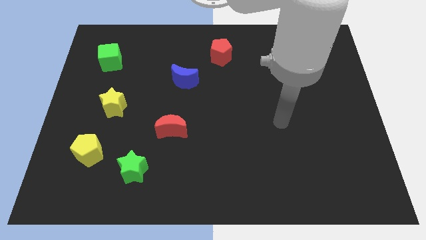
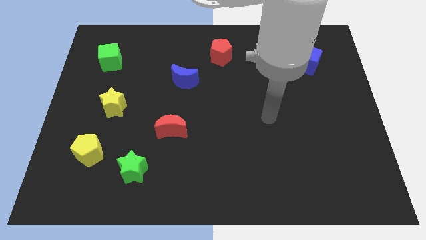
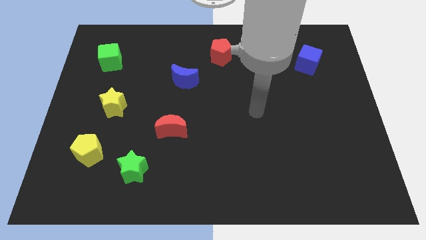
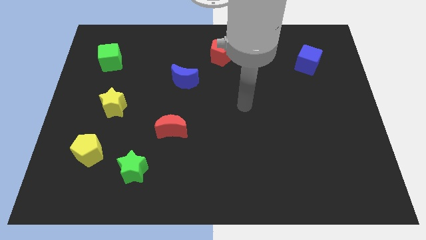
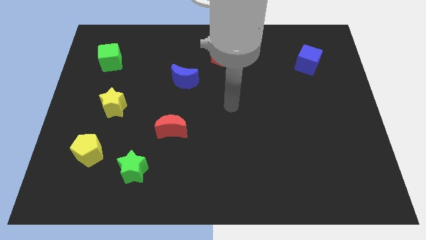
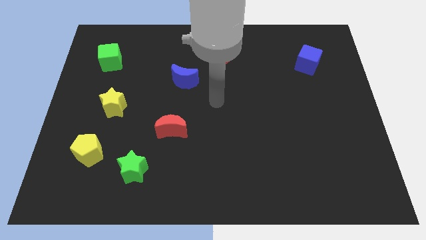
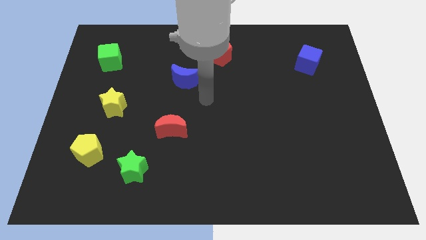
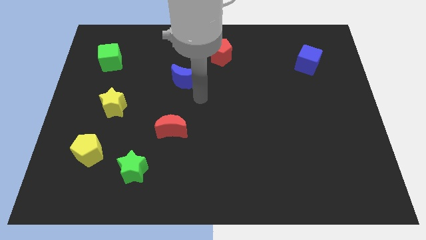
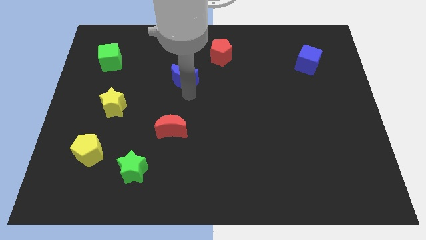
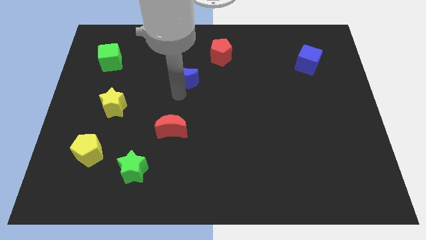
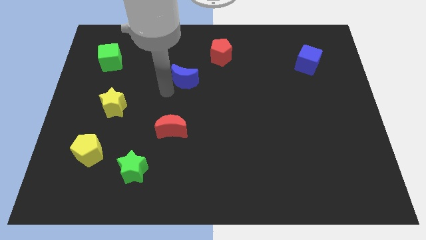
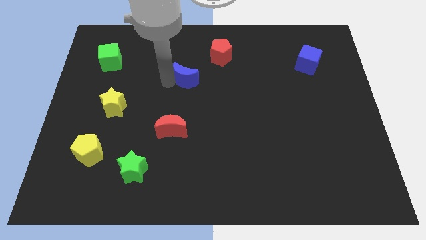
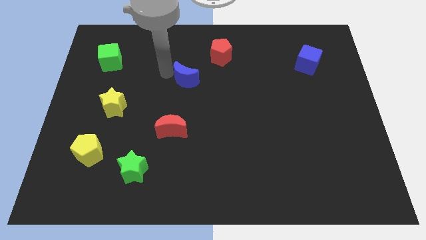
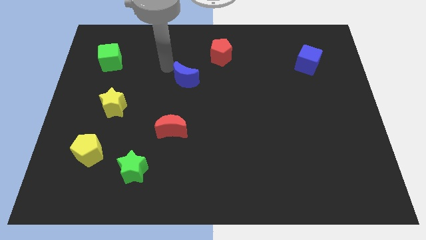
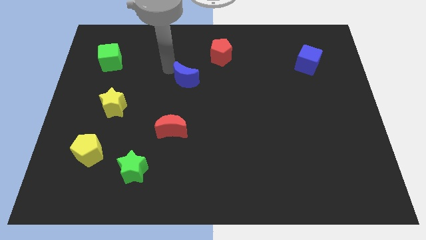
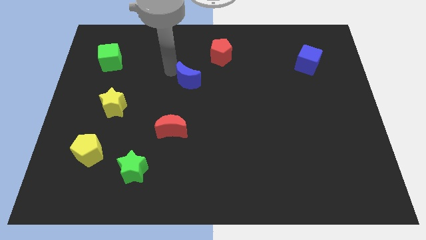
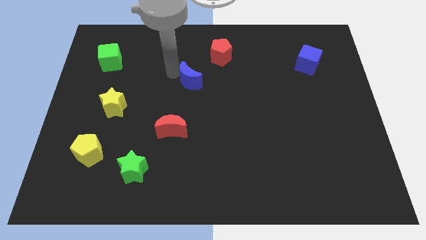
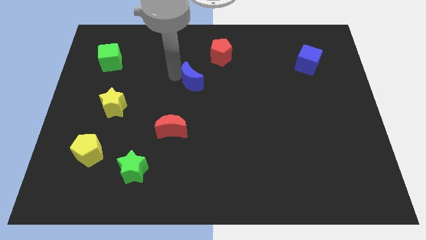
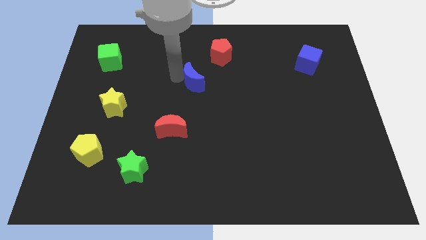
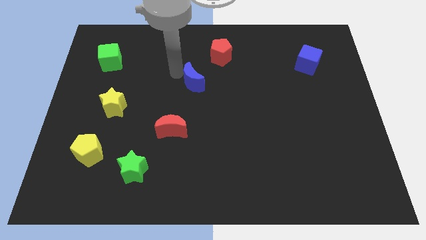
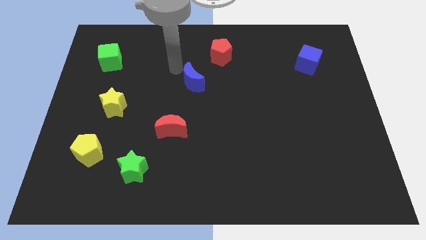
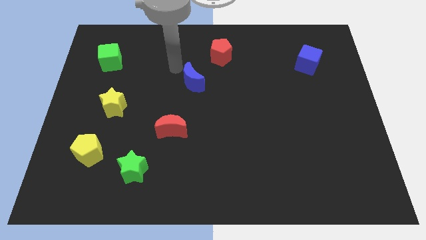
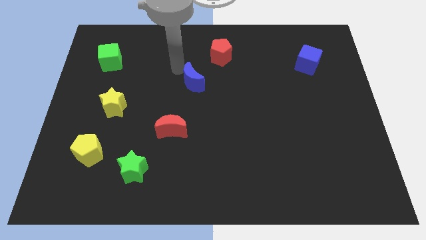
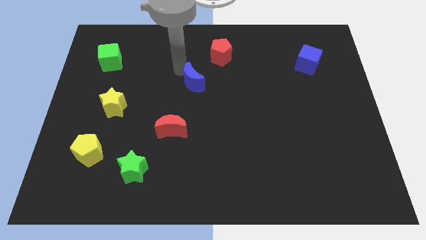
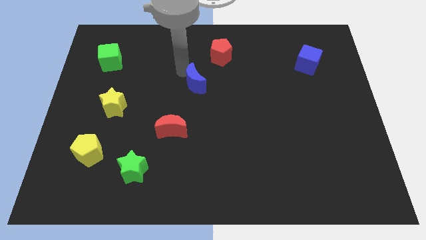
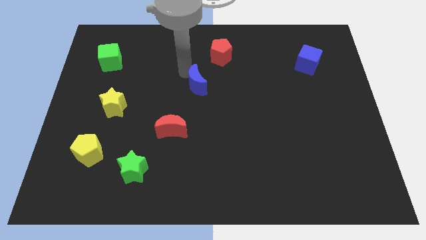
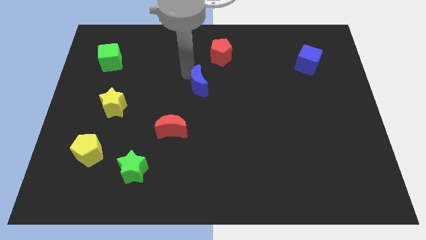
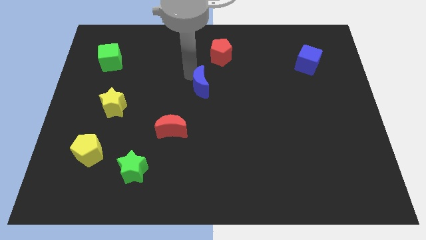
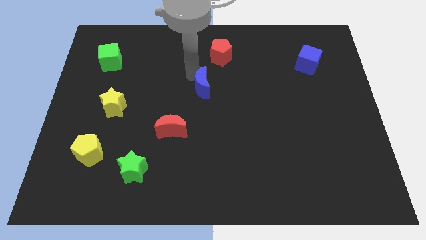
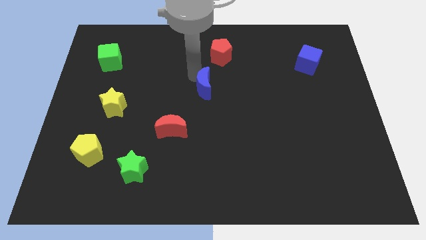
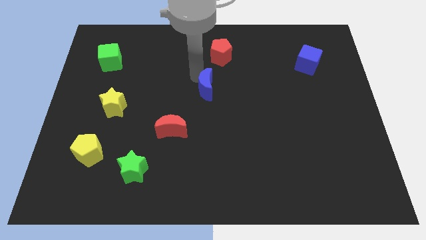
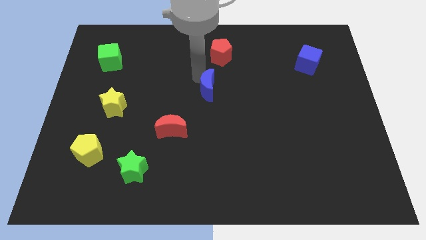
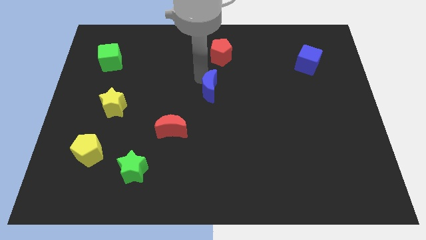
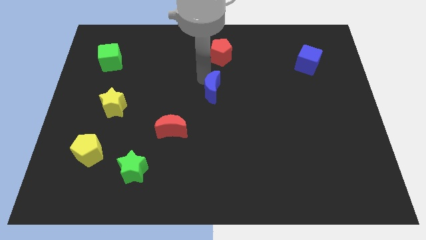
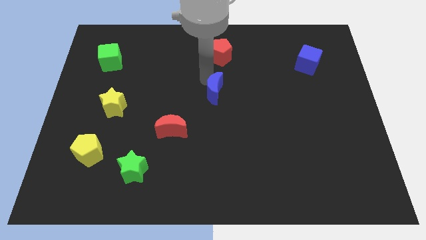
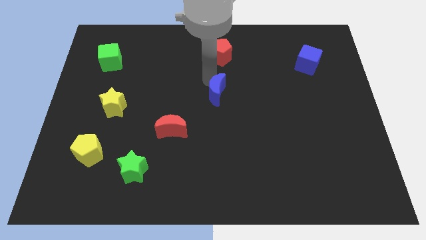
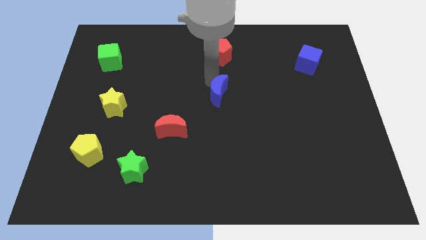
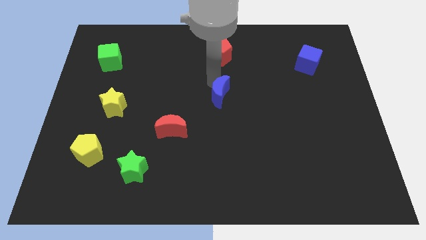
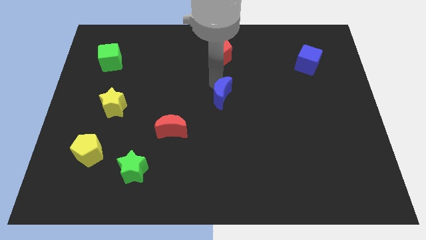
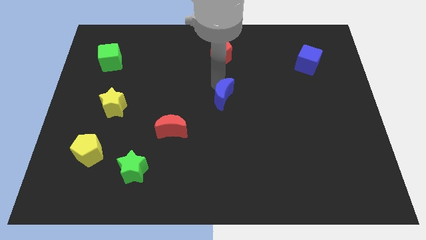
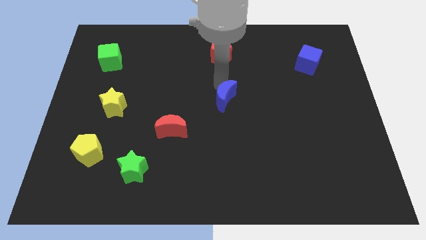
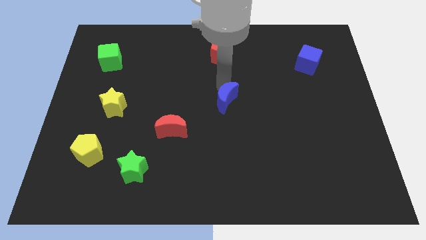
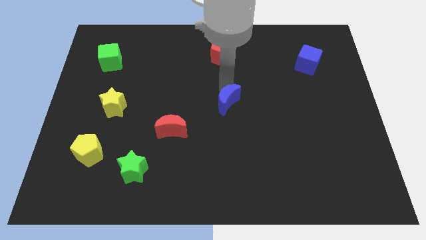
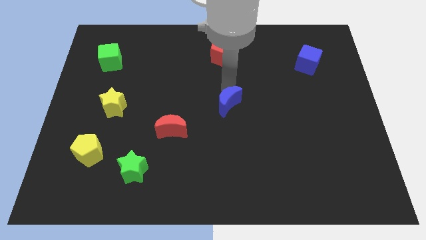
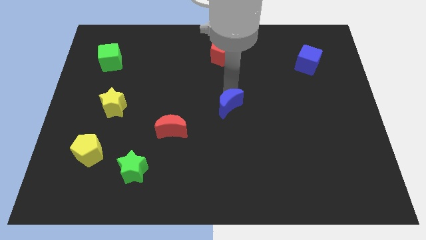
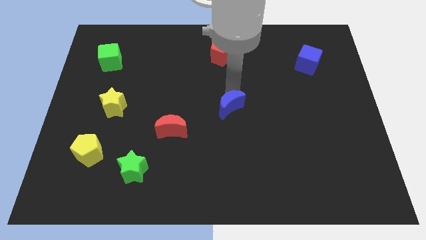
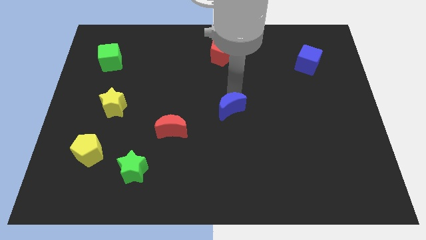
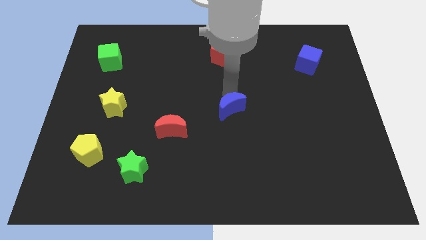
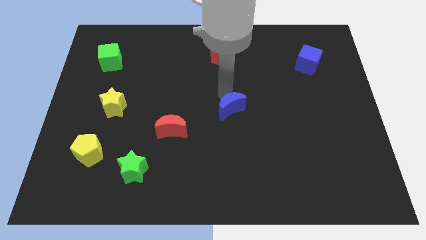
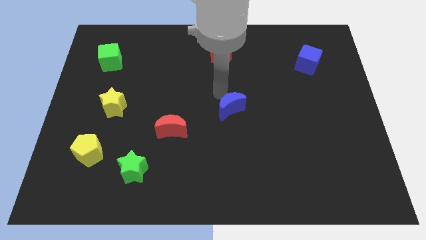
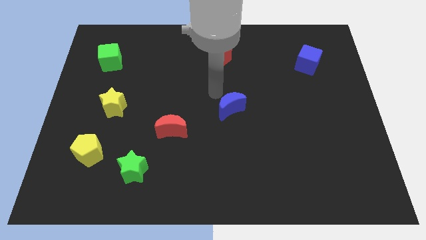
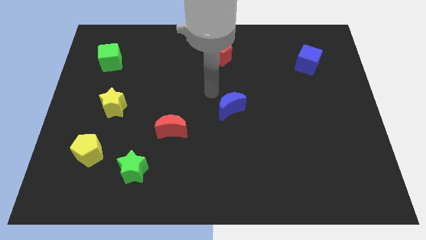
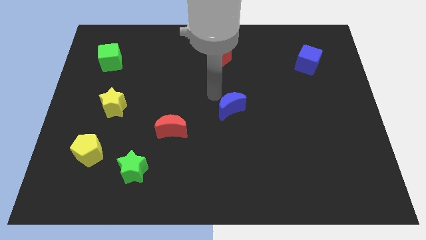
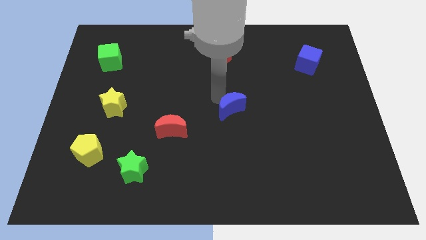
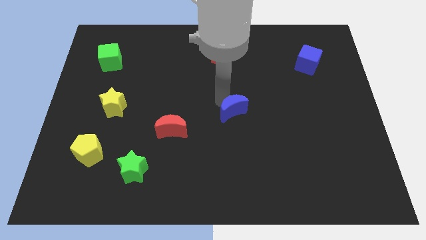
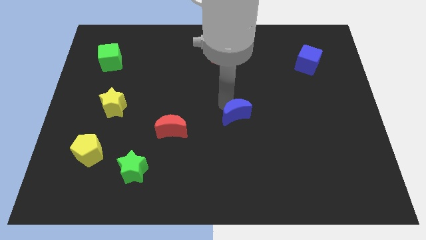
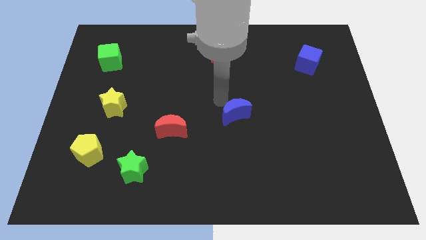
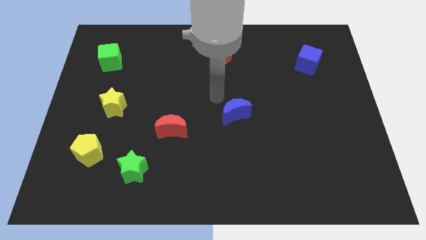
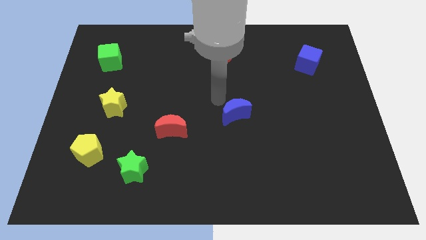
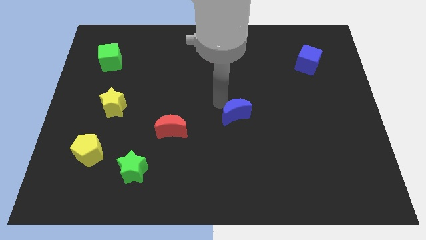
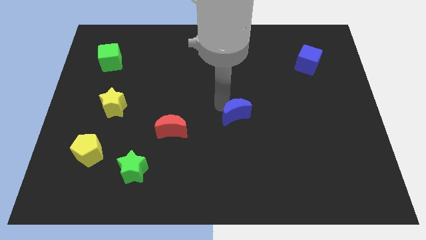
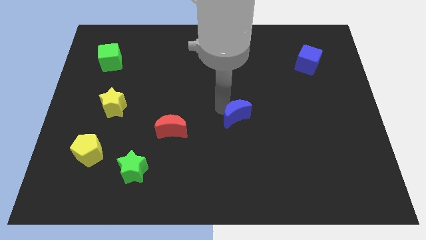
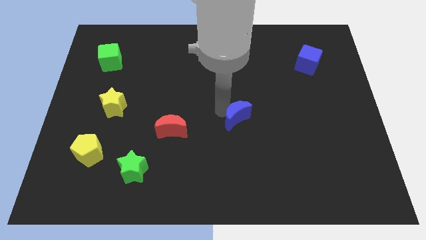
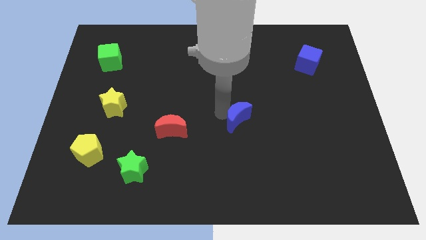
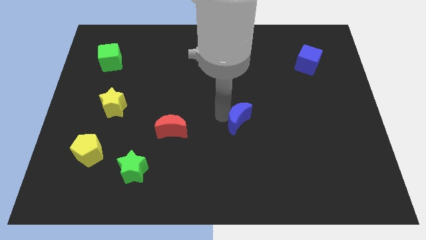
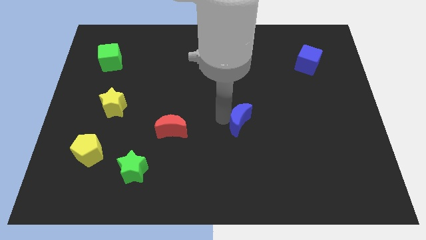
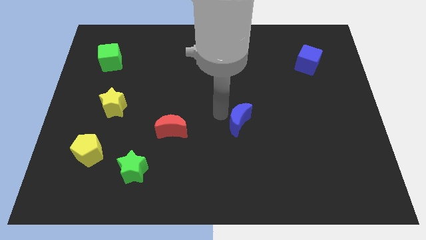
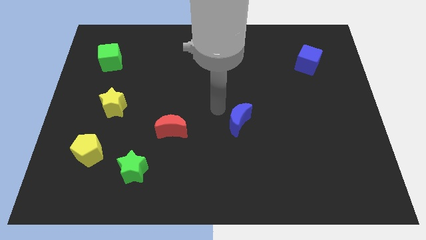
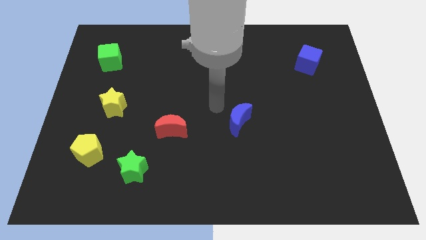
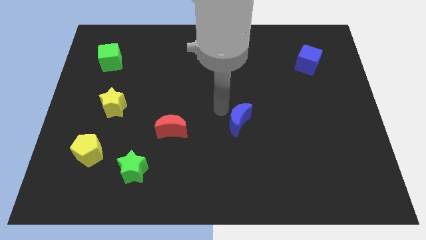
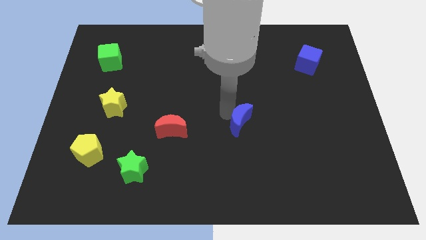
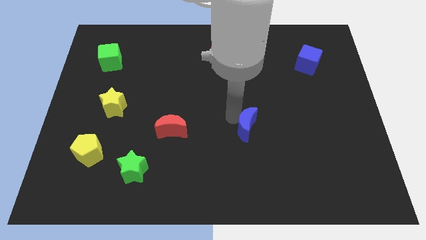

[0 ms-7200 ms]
slide the blue moon diagonally down and right

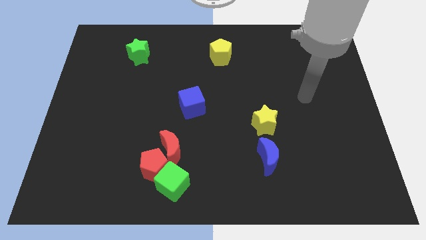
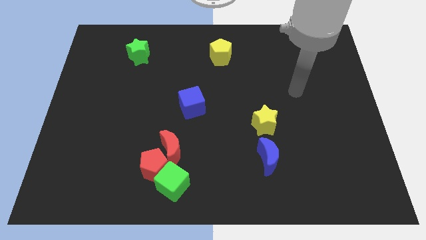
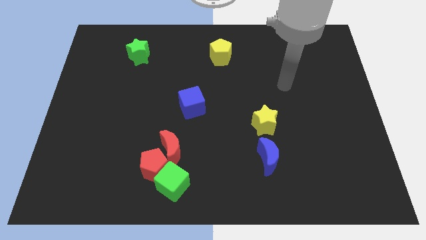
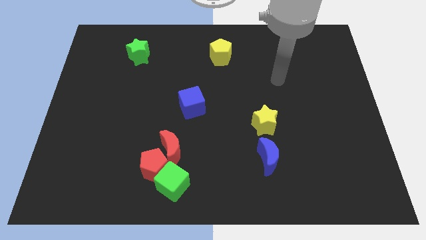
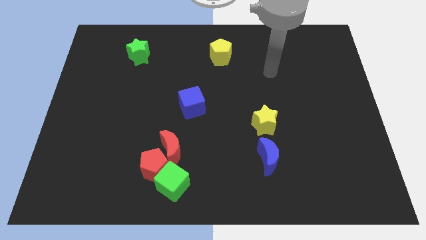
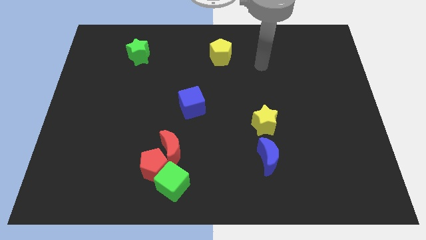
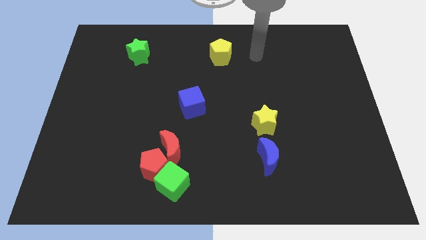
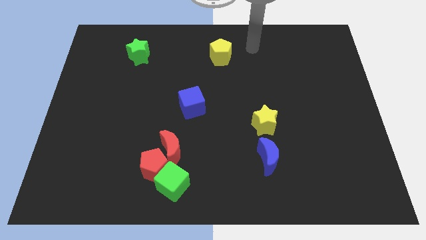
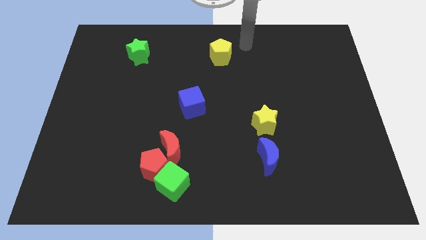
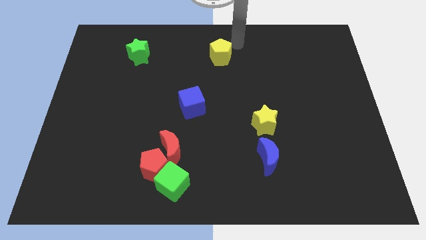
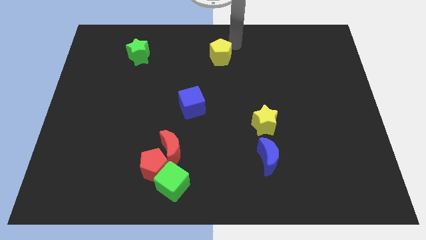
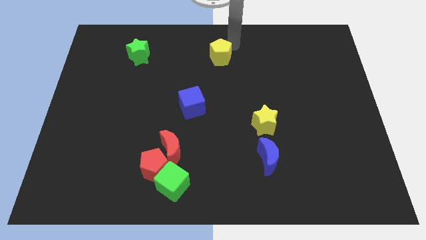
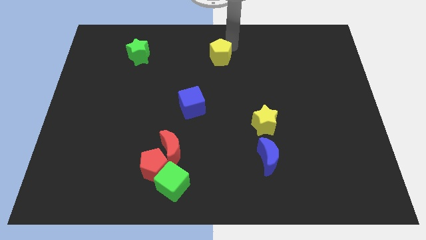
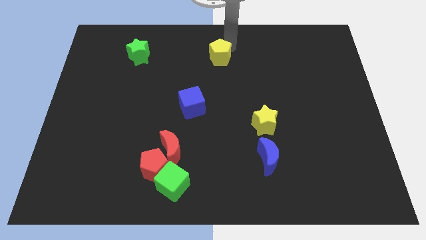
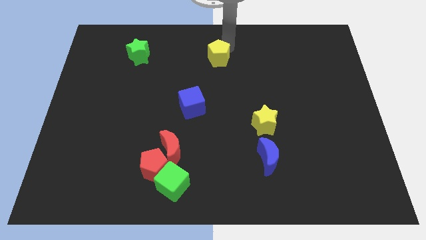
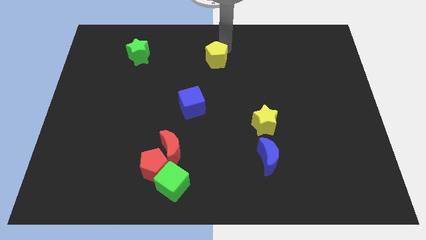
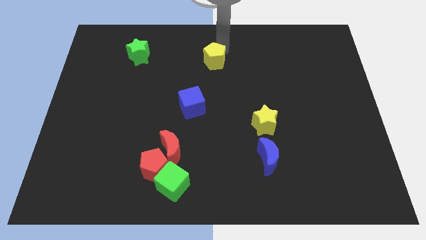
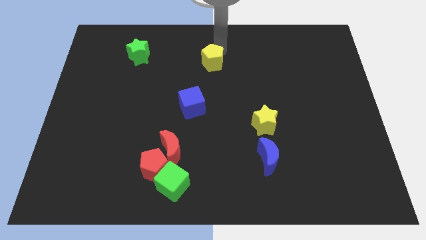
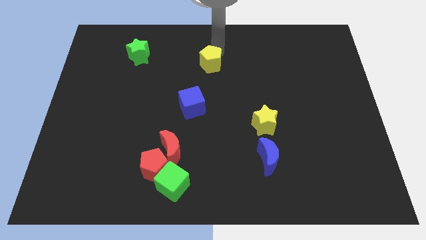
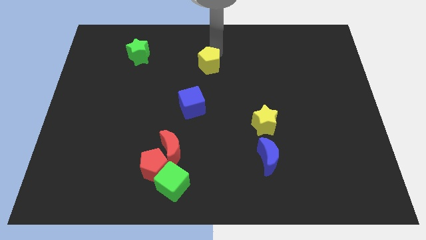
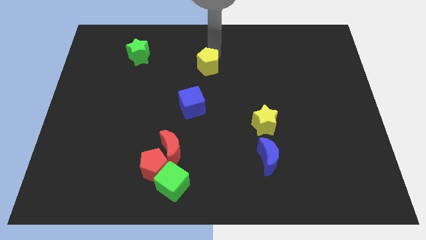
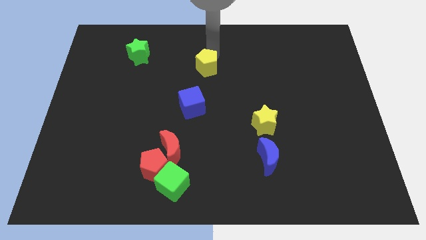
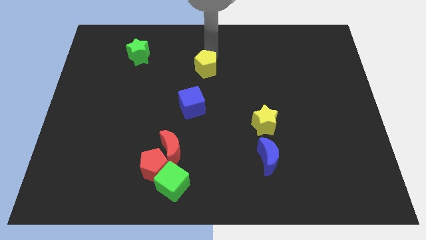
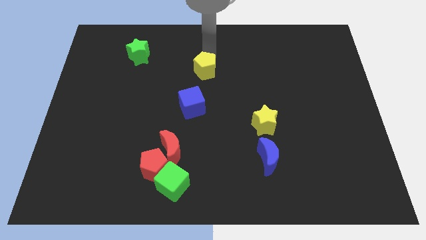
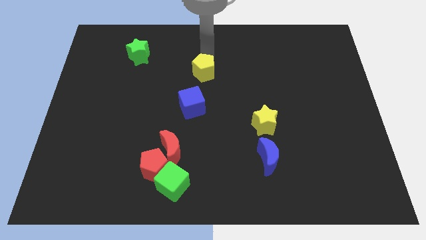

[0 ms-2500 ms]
slightly move the yellow pentagon downwards and then to the left
